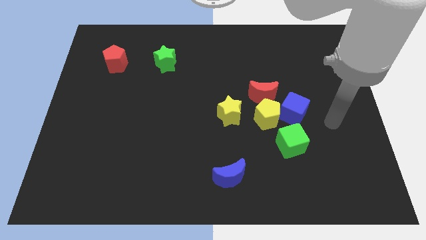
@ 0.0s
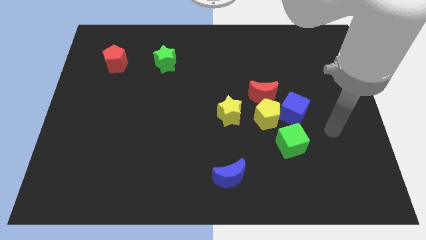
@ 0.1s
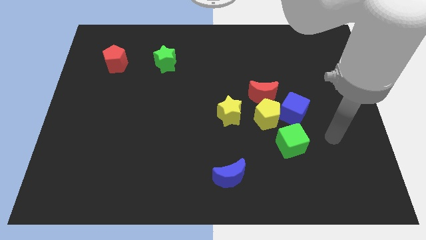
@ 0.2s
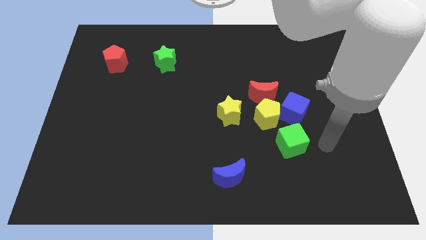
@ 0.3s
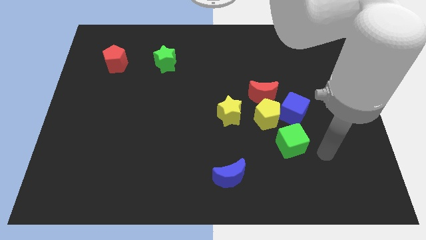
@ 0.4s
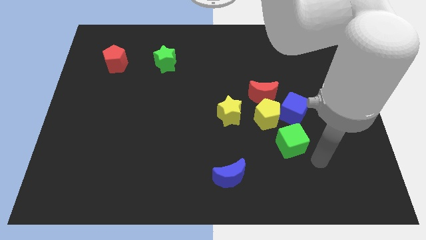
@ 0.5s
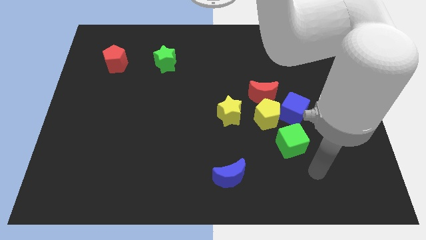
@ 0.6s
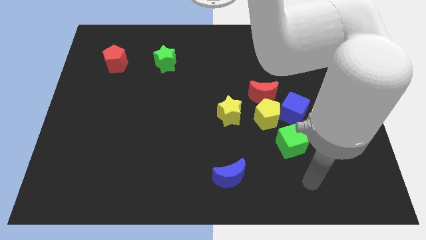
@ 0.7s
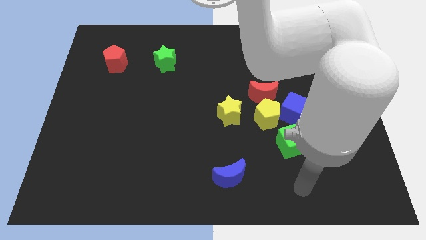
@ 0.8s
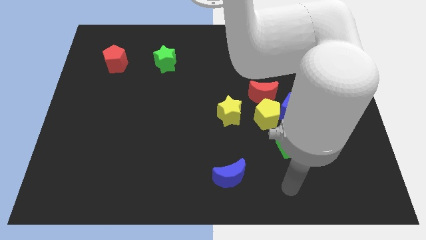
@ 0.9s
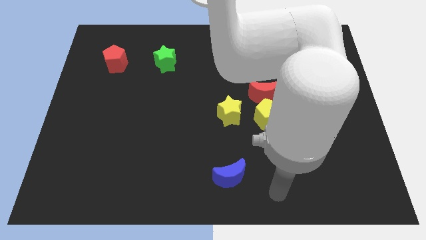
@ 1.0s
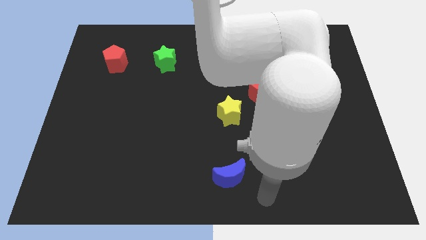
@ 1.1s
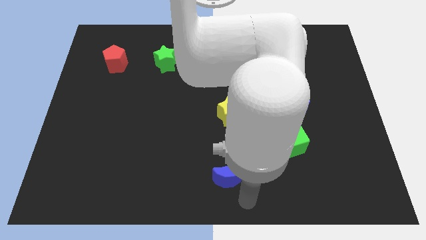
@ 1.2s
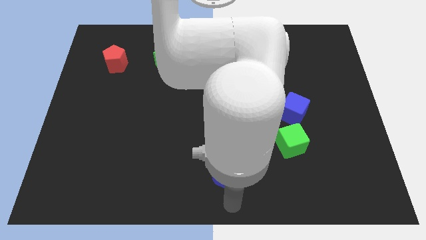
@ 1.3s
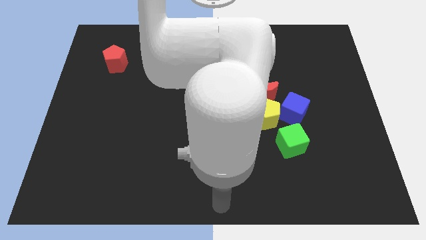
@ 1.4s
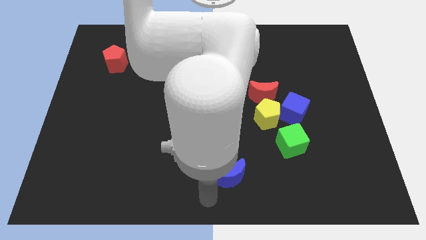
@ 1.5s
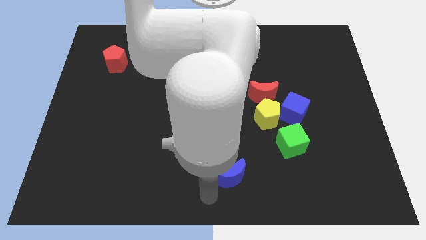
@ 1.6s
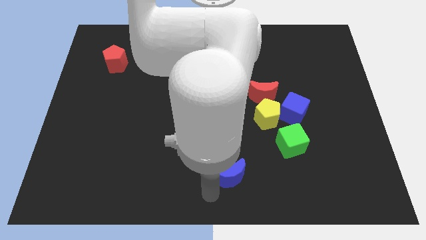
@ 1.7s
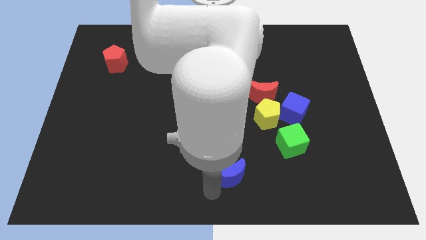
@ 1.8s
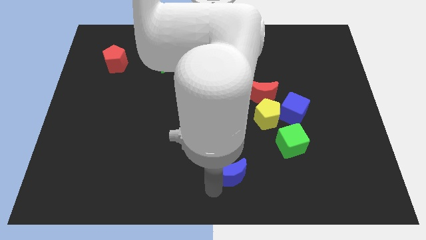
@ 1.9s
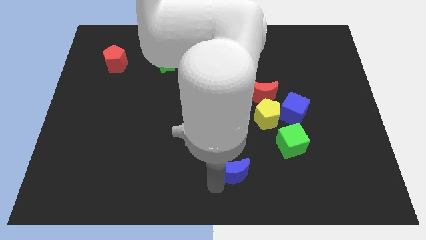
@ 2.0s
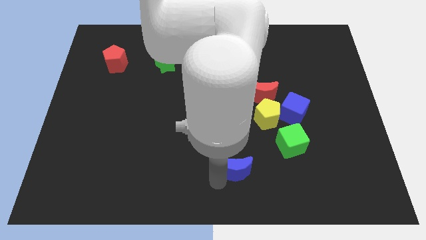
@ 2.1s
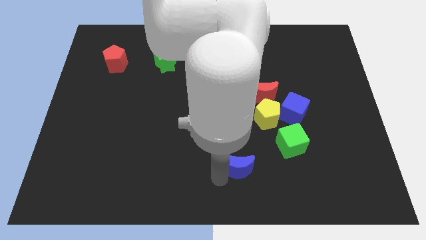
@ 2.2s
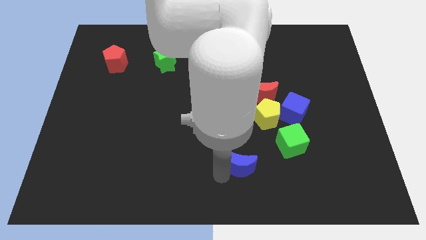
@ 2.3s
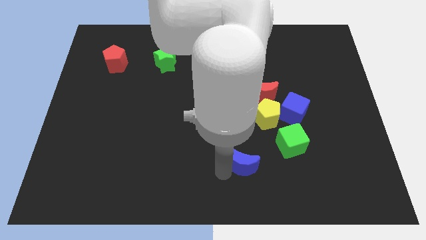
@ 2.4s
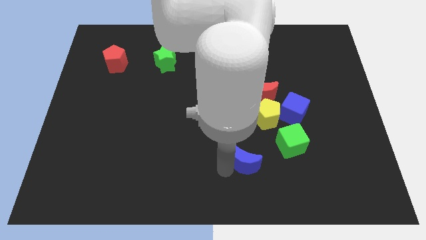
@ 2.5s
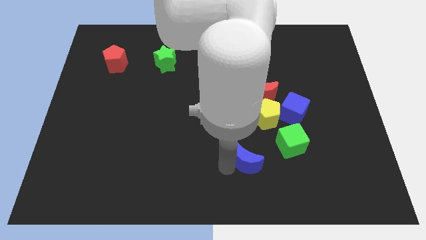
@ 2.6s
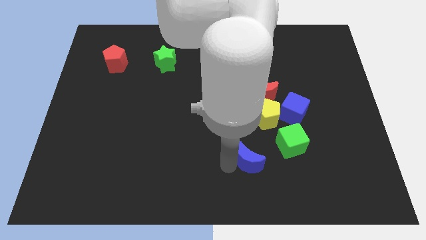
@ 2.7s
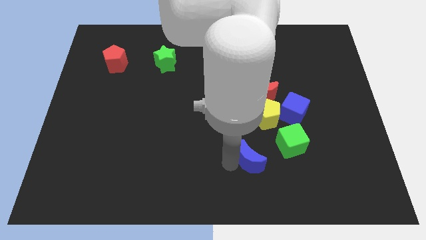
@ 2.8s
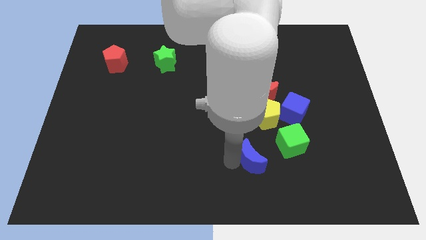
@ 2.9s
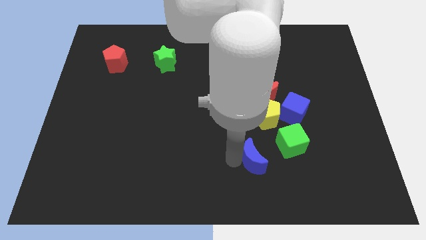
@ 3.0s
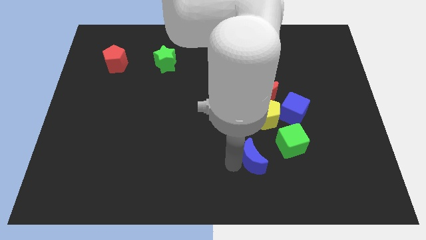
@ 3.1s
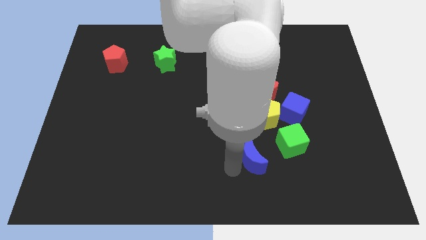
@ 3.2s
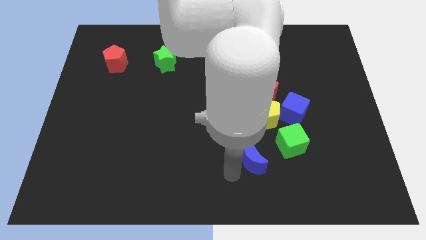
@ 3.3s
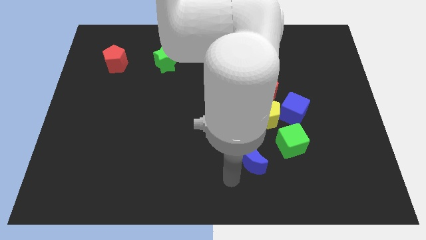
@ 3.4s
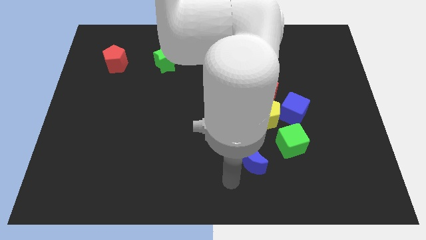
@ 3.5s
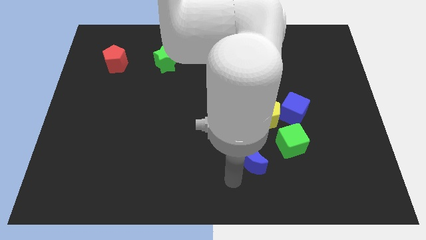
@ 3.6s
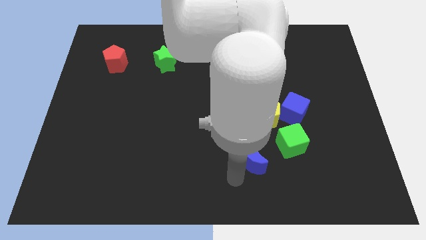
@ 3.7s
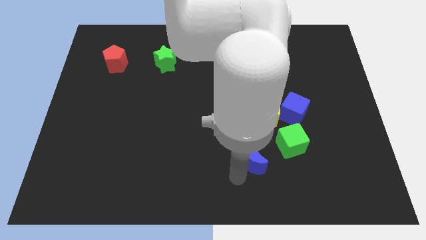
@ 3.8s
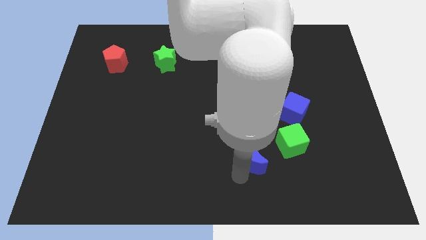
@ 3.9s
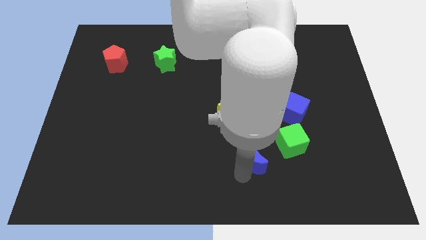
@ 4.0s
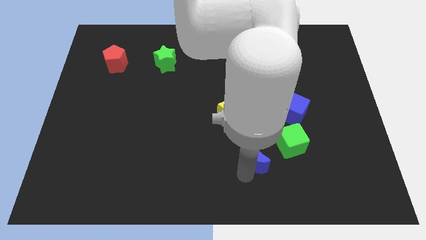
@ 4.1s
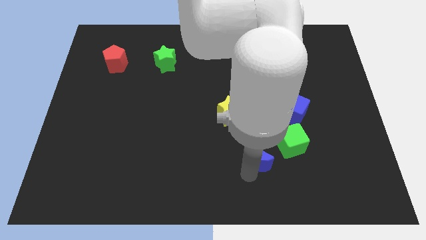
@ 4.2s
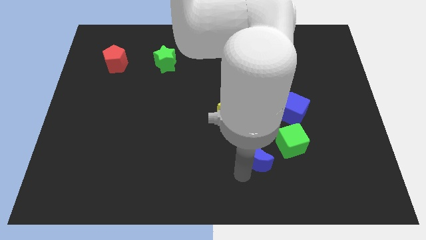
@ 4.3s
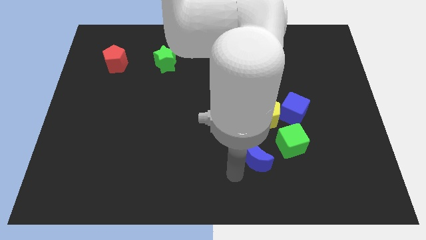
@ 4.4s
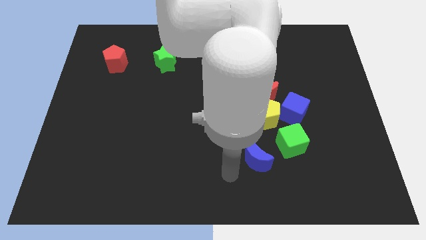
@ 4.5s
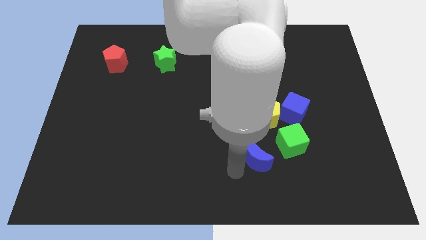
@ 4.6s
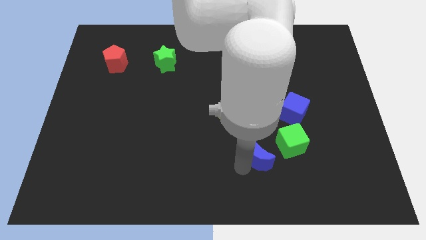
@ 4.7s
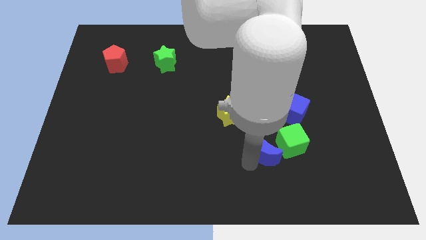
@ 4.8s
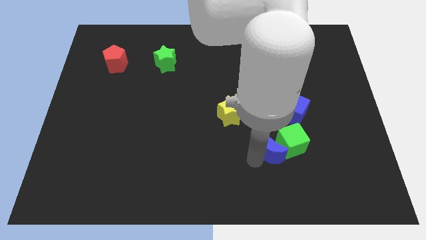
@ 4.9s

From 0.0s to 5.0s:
put the blue moon to the green cube

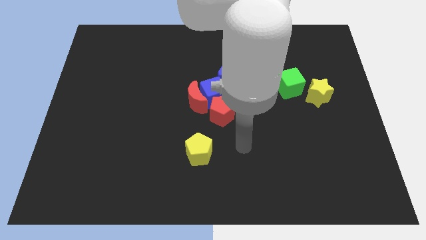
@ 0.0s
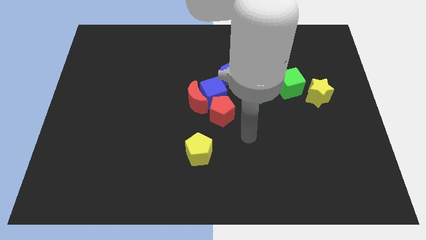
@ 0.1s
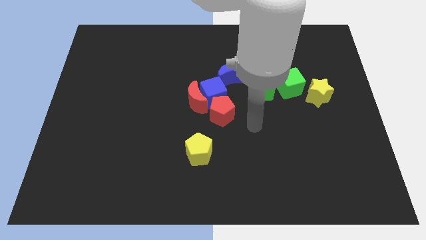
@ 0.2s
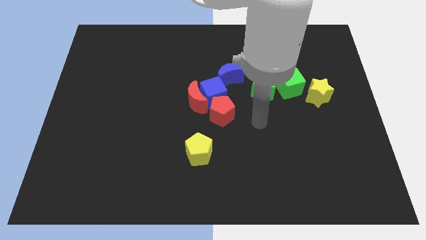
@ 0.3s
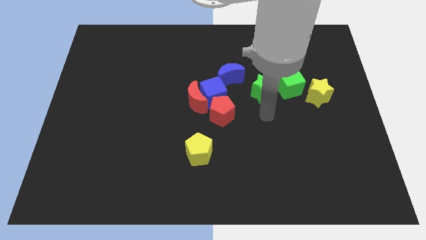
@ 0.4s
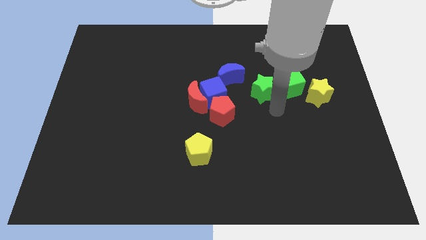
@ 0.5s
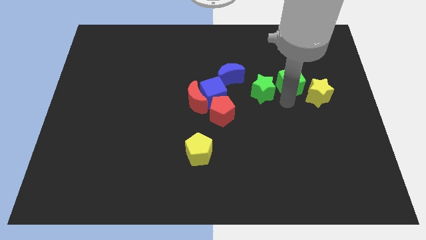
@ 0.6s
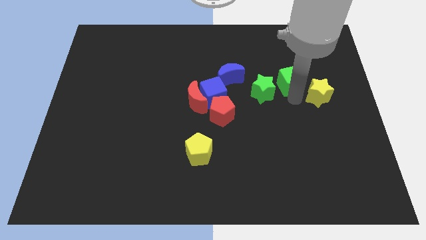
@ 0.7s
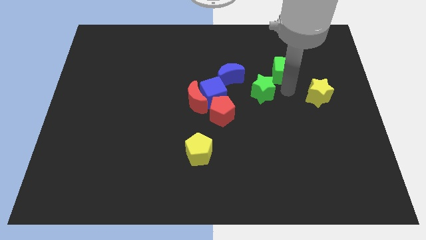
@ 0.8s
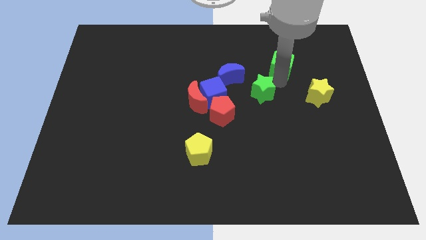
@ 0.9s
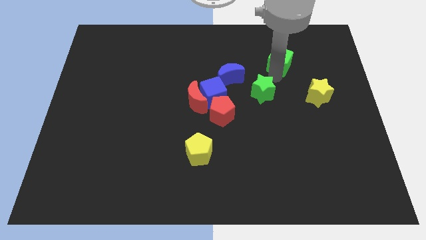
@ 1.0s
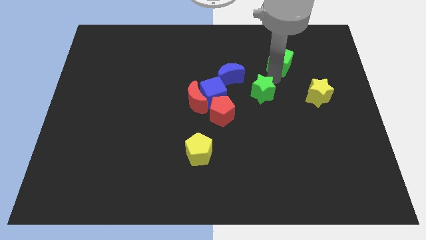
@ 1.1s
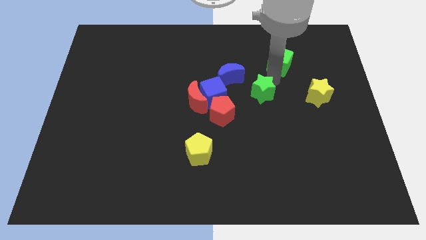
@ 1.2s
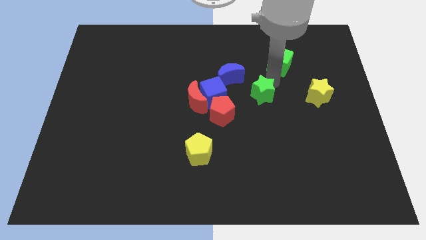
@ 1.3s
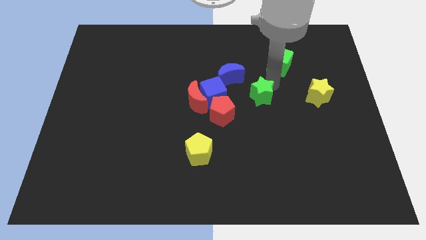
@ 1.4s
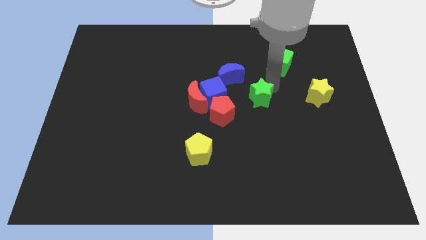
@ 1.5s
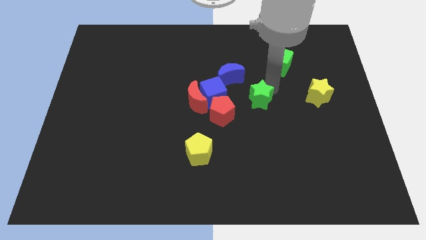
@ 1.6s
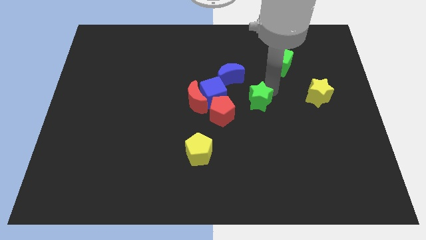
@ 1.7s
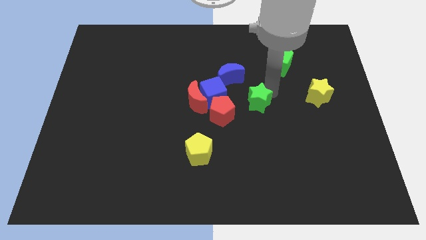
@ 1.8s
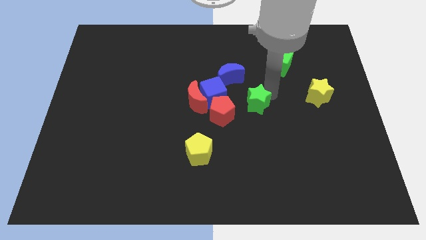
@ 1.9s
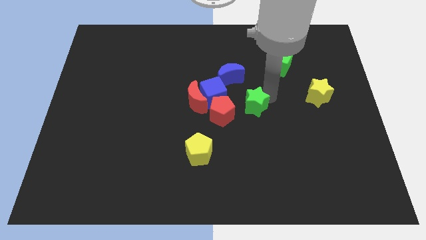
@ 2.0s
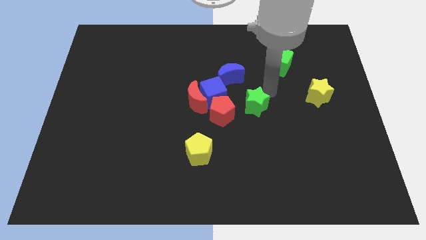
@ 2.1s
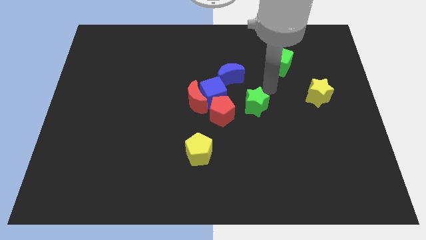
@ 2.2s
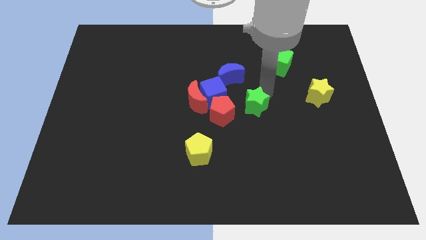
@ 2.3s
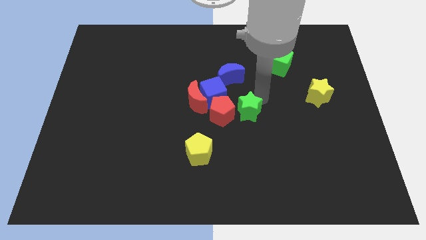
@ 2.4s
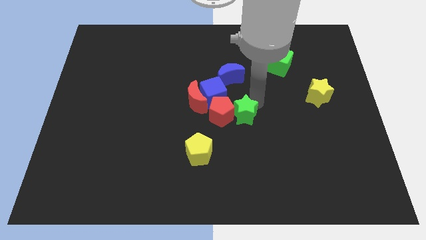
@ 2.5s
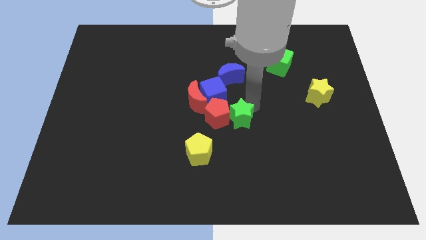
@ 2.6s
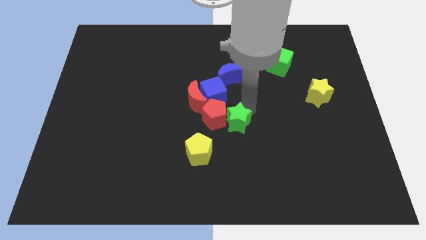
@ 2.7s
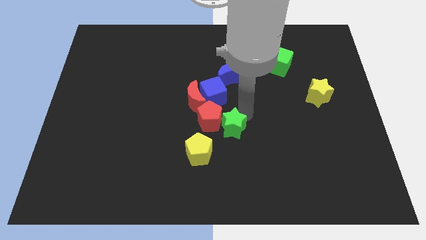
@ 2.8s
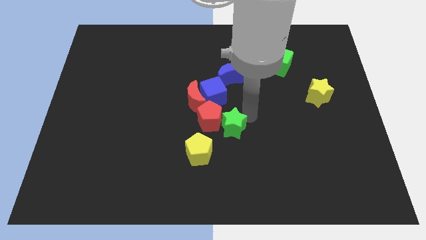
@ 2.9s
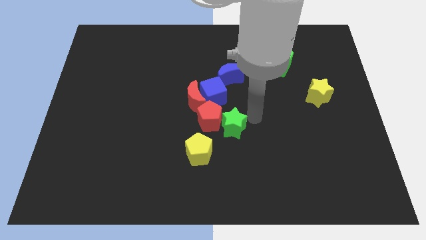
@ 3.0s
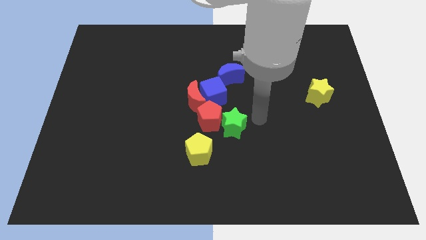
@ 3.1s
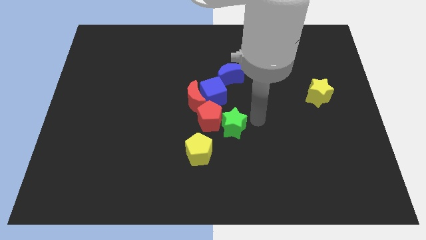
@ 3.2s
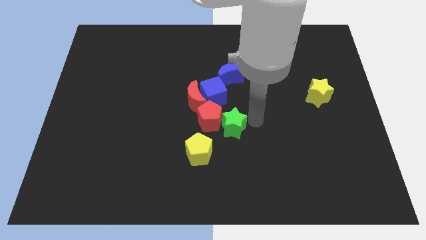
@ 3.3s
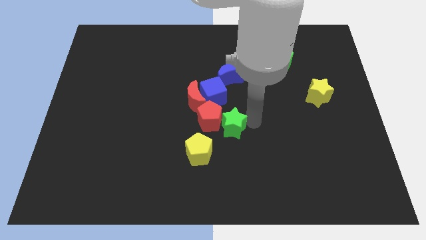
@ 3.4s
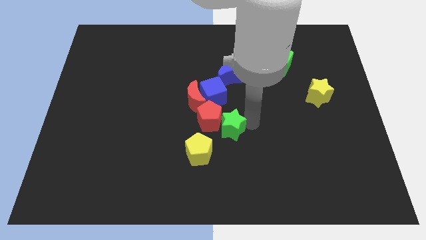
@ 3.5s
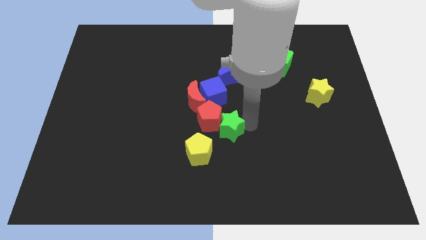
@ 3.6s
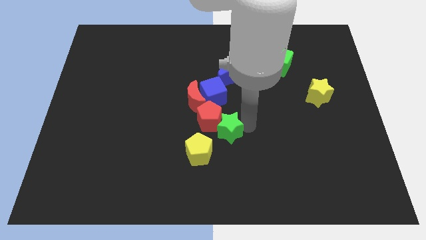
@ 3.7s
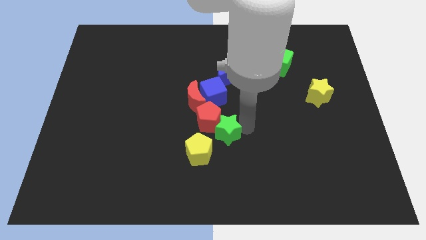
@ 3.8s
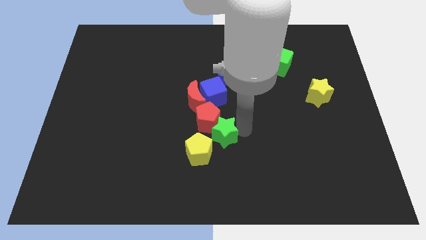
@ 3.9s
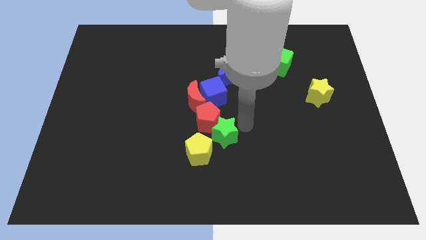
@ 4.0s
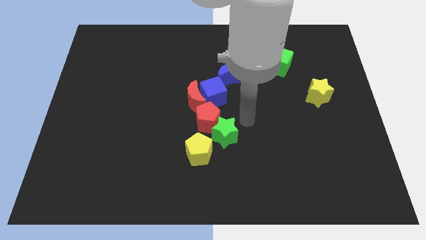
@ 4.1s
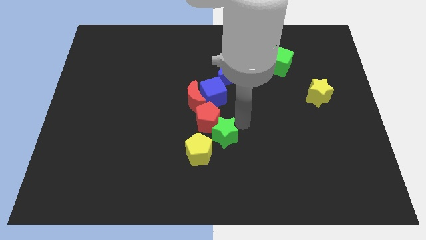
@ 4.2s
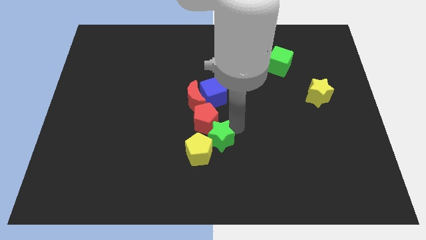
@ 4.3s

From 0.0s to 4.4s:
move the green star to the yellow pentagon
